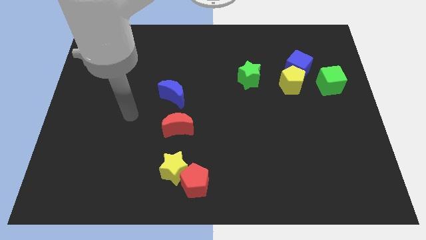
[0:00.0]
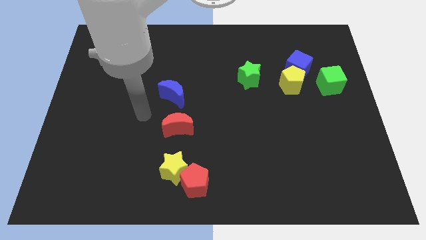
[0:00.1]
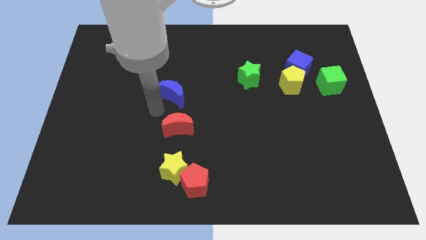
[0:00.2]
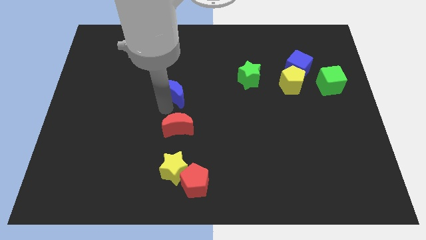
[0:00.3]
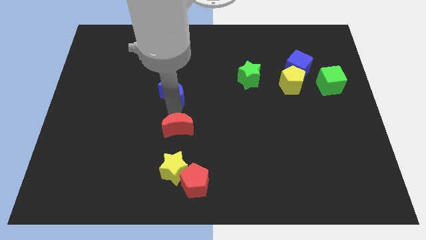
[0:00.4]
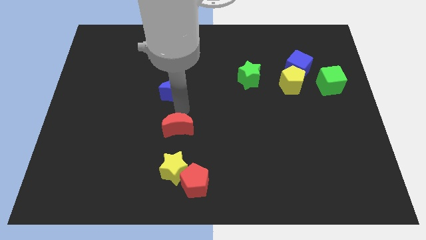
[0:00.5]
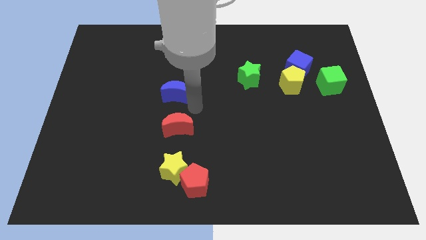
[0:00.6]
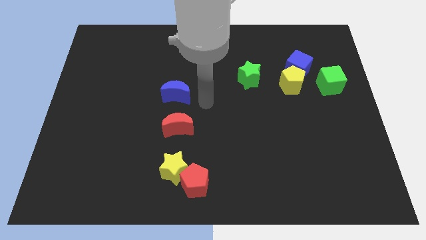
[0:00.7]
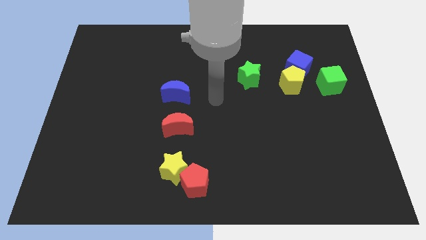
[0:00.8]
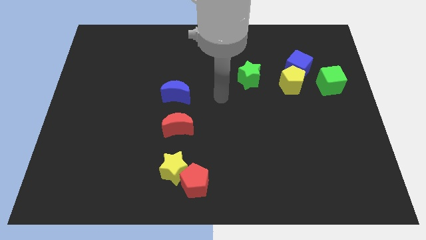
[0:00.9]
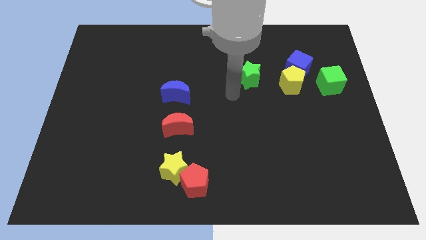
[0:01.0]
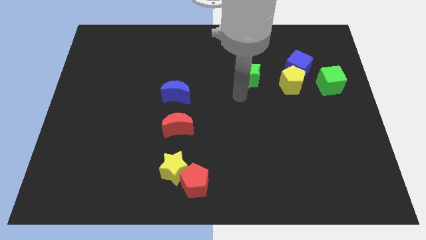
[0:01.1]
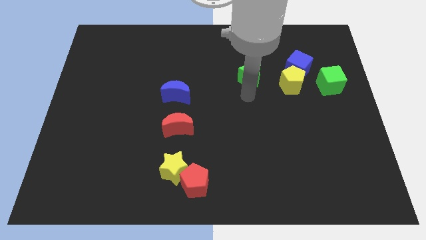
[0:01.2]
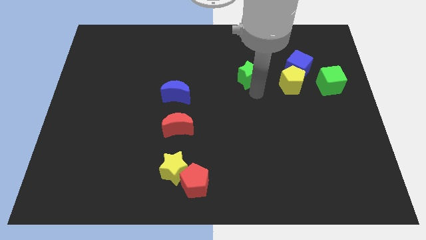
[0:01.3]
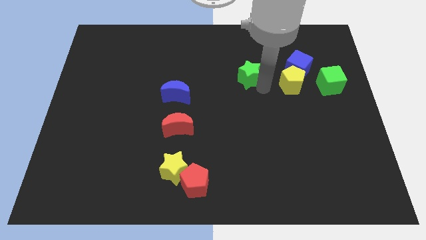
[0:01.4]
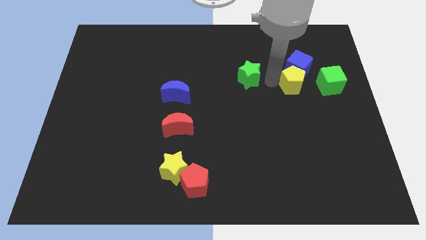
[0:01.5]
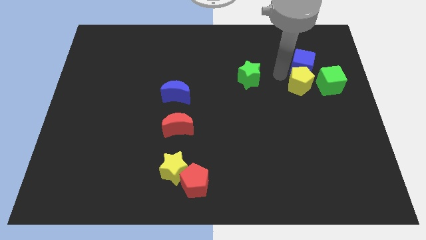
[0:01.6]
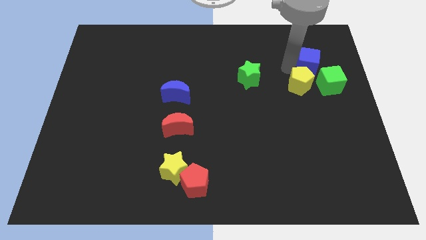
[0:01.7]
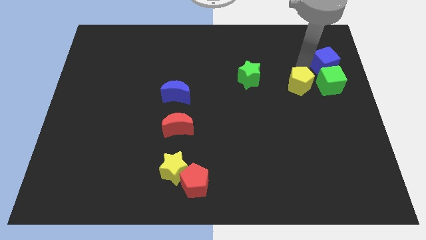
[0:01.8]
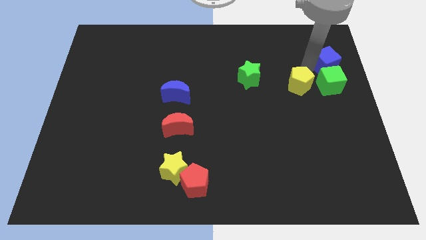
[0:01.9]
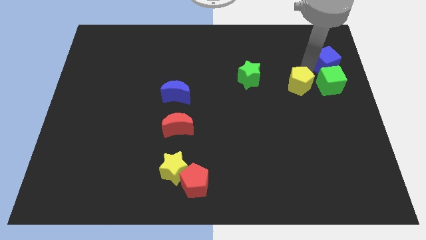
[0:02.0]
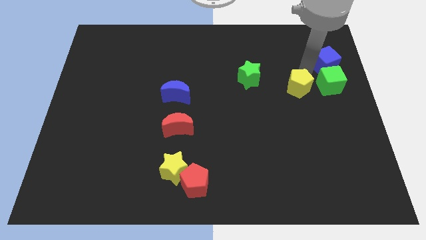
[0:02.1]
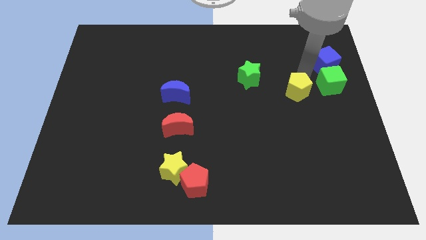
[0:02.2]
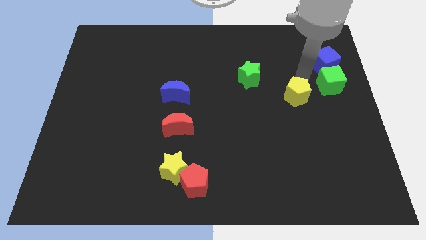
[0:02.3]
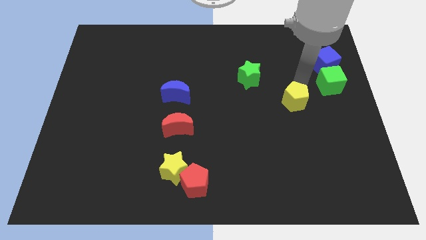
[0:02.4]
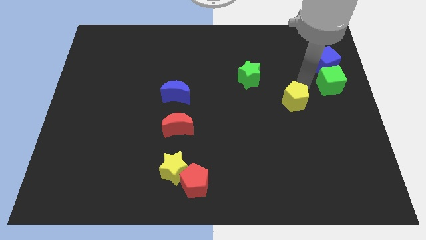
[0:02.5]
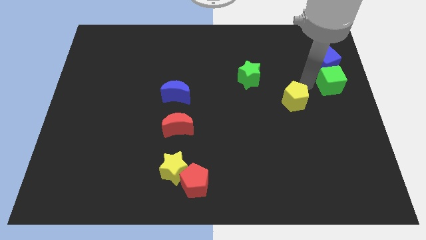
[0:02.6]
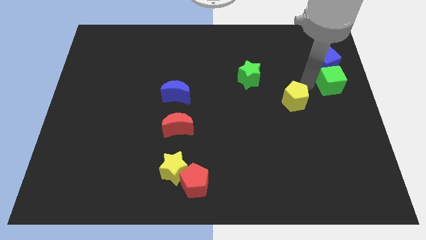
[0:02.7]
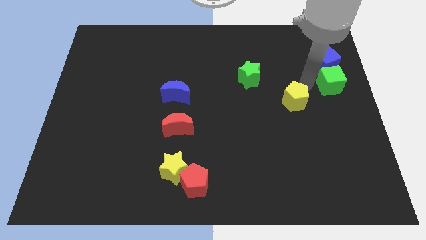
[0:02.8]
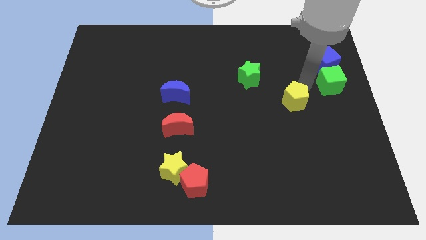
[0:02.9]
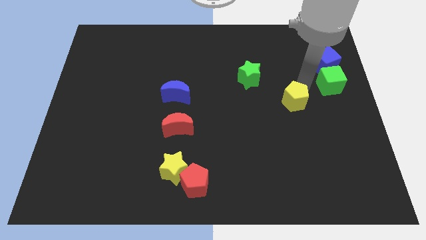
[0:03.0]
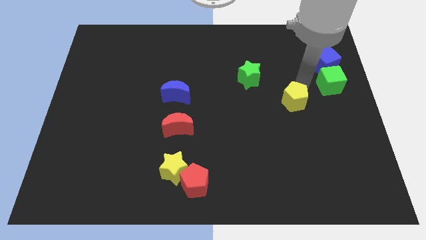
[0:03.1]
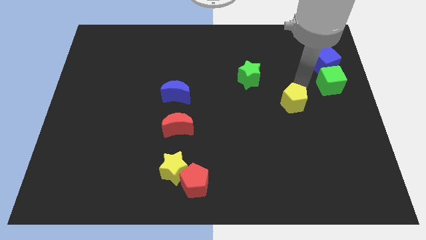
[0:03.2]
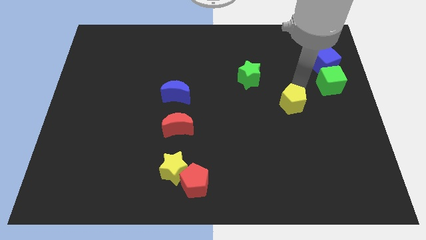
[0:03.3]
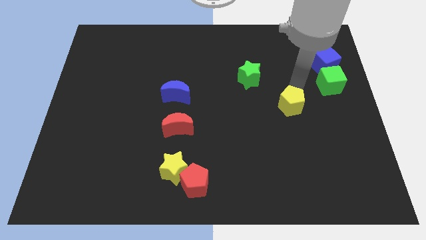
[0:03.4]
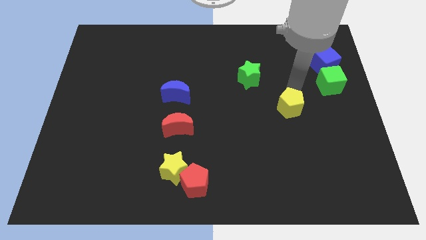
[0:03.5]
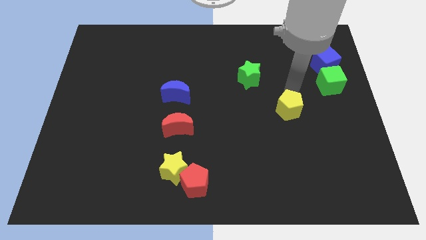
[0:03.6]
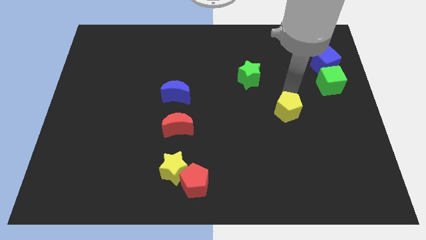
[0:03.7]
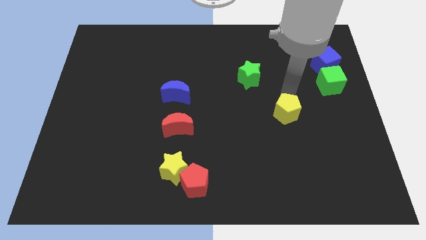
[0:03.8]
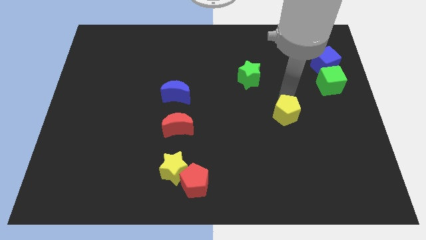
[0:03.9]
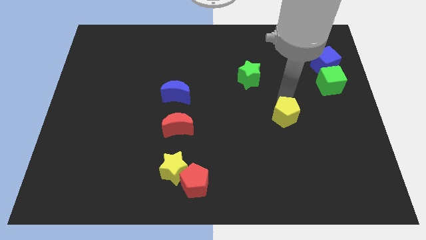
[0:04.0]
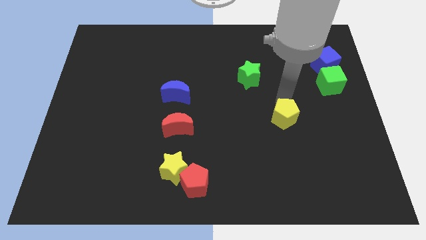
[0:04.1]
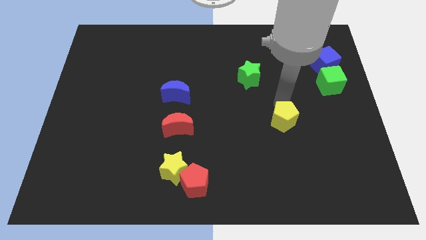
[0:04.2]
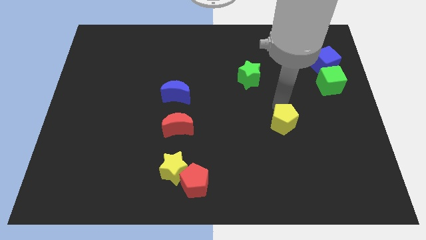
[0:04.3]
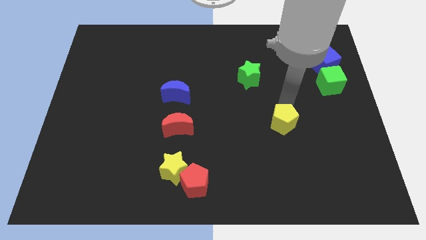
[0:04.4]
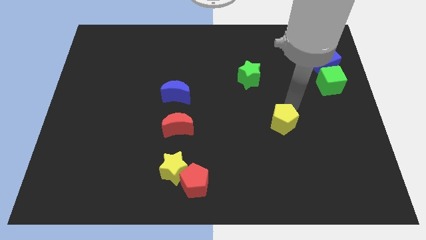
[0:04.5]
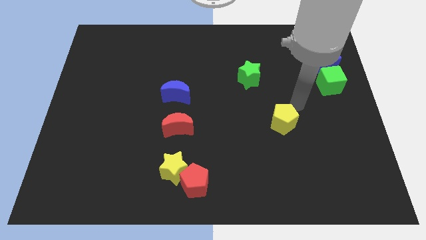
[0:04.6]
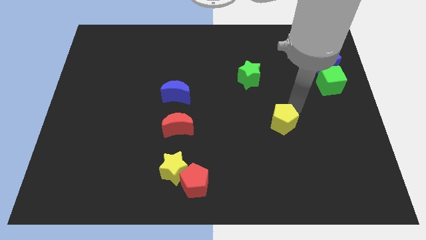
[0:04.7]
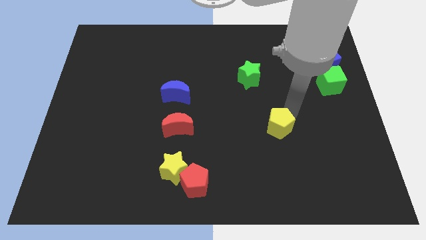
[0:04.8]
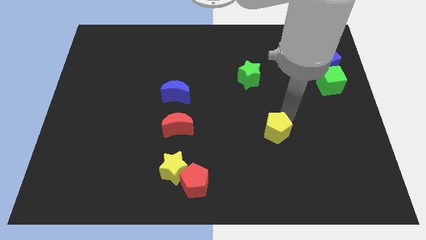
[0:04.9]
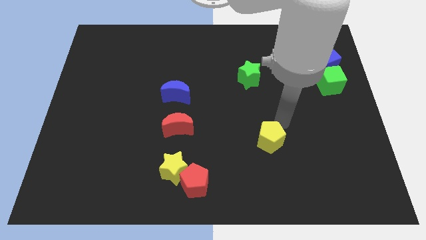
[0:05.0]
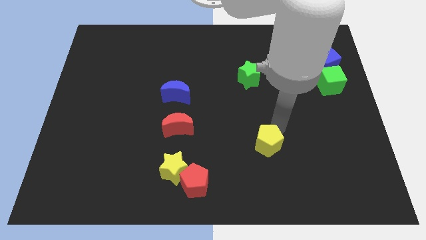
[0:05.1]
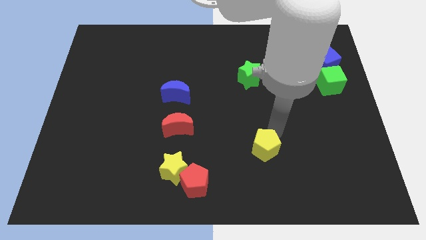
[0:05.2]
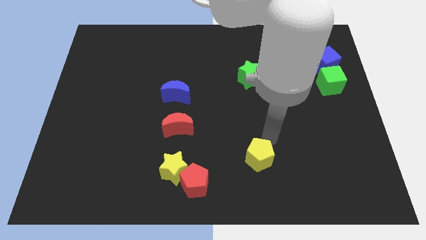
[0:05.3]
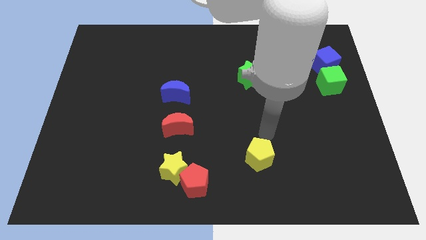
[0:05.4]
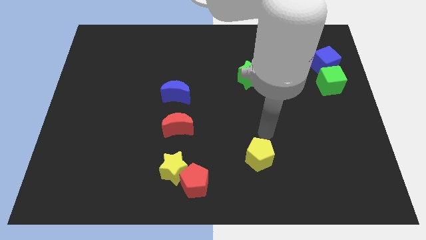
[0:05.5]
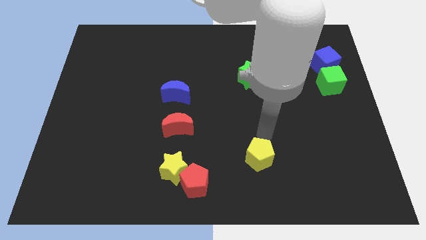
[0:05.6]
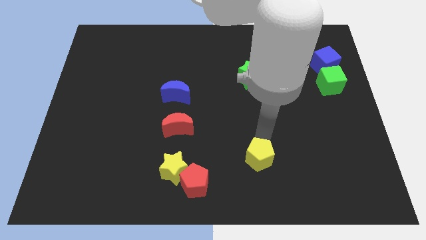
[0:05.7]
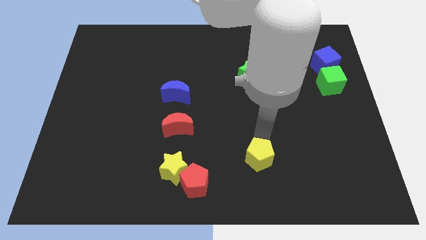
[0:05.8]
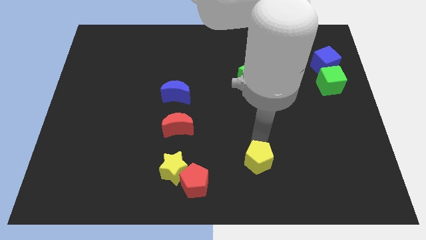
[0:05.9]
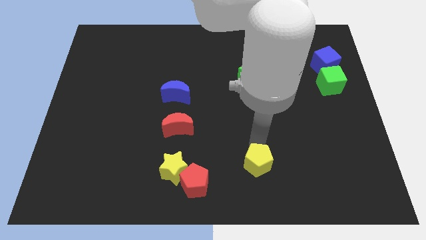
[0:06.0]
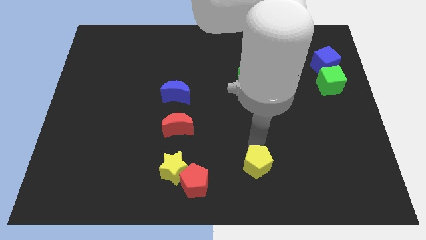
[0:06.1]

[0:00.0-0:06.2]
move the yellow pentagon to the bottom

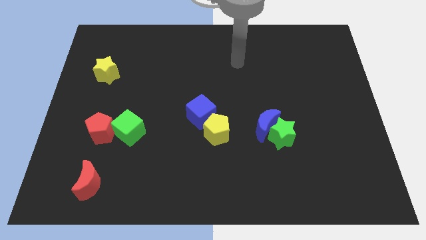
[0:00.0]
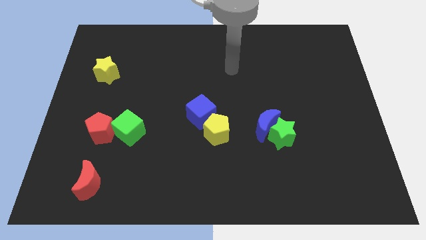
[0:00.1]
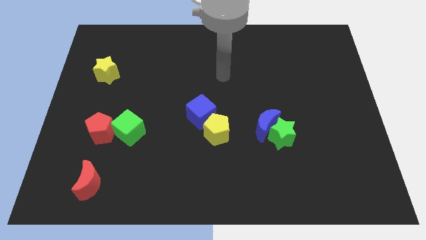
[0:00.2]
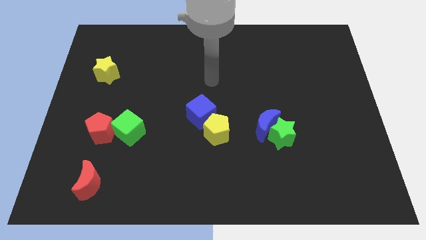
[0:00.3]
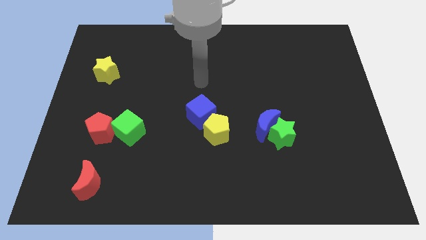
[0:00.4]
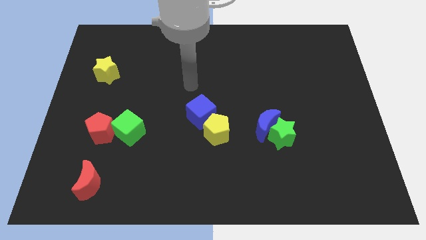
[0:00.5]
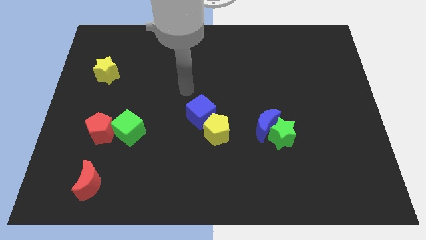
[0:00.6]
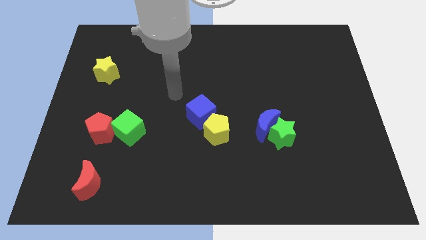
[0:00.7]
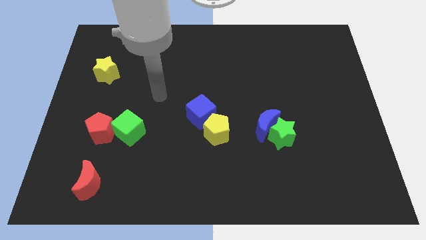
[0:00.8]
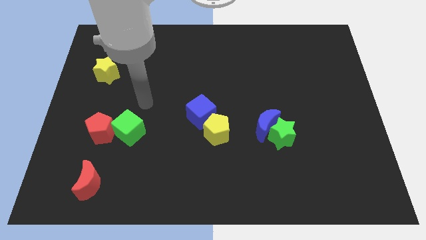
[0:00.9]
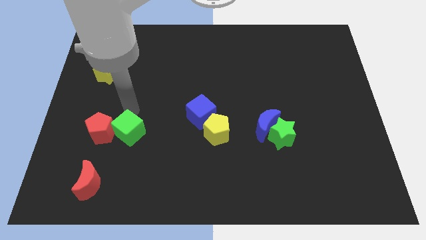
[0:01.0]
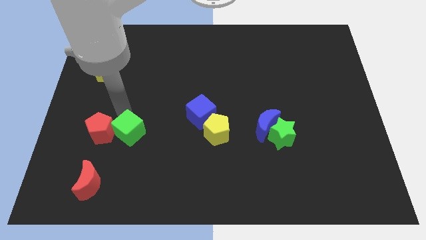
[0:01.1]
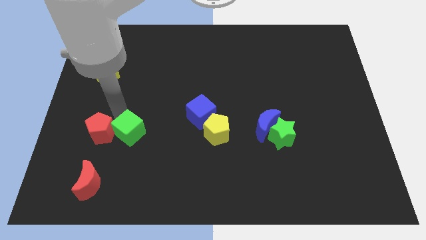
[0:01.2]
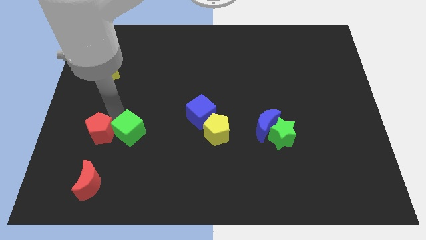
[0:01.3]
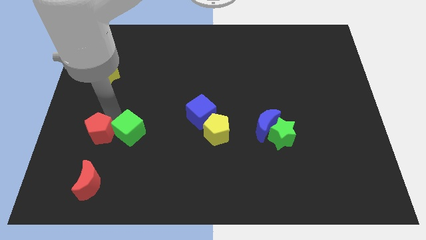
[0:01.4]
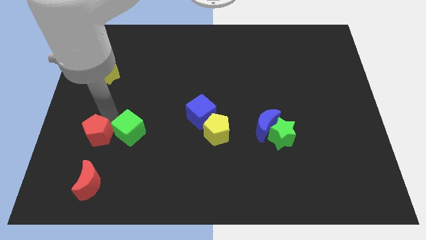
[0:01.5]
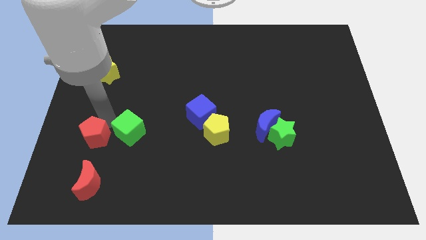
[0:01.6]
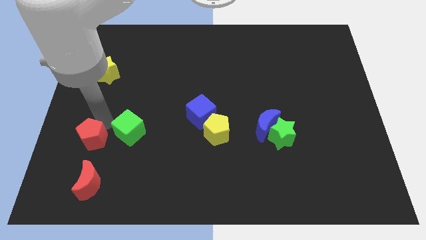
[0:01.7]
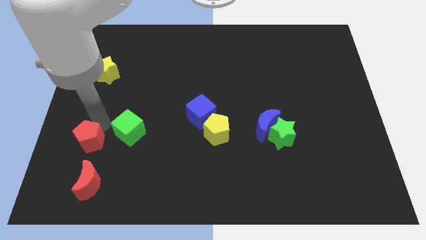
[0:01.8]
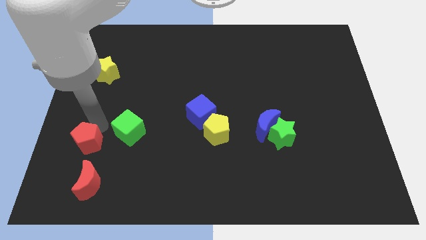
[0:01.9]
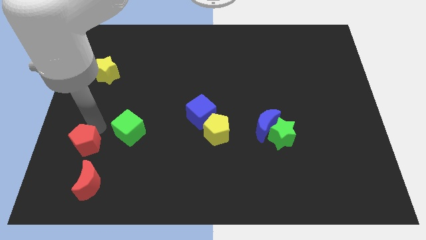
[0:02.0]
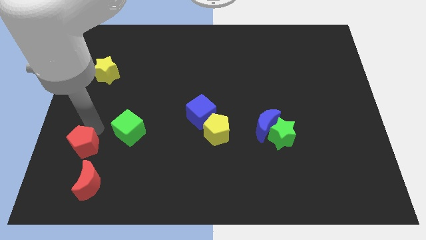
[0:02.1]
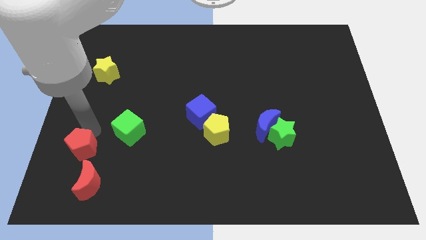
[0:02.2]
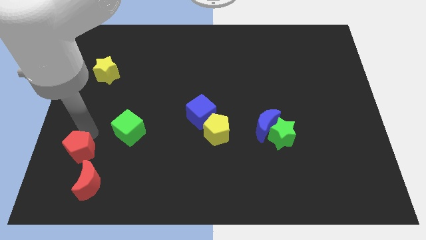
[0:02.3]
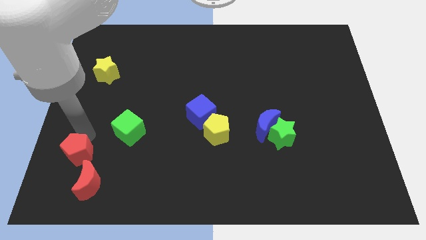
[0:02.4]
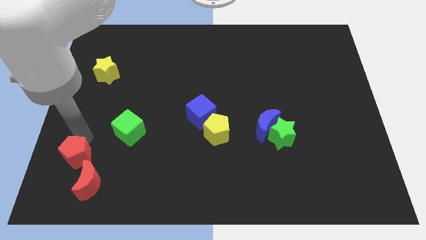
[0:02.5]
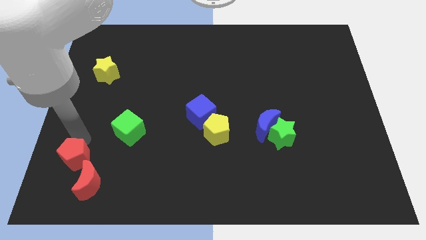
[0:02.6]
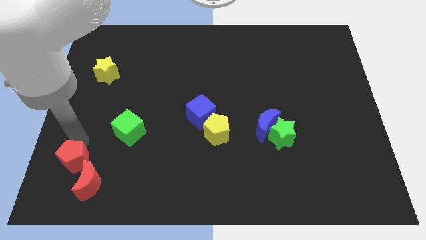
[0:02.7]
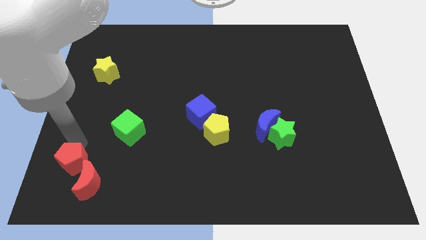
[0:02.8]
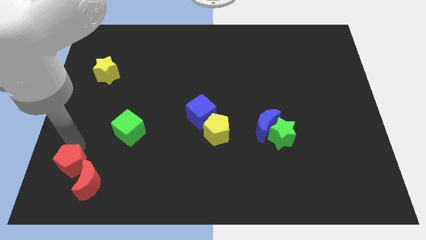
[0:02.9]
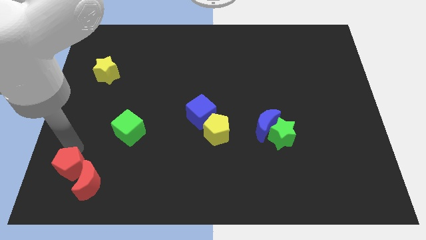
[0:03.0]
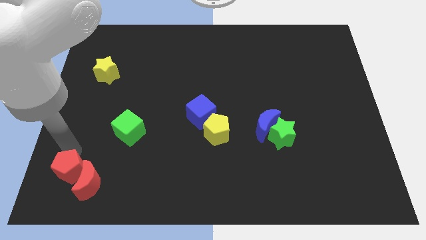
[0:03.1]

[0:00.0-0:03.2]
put the red pentagon to the bottom left corner
